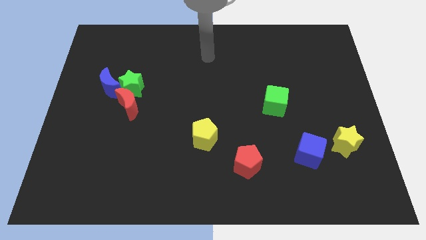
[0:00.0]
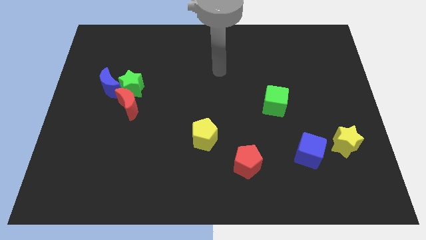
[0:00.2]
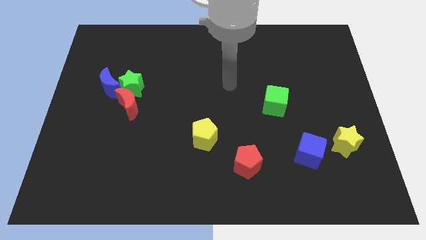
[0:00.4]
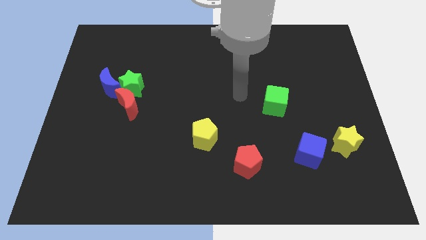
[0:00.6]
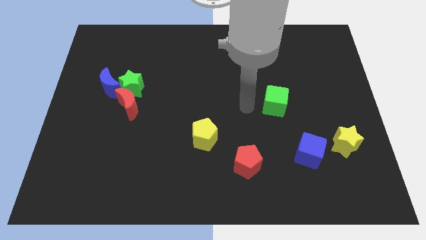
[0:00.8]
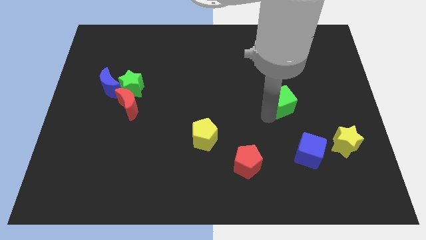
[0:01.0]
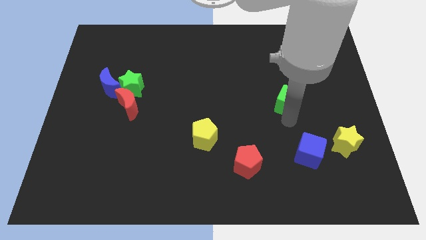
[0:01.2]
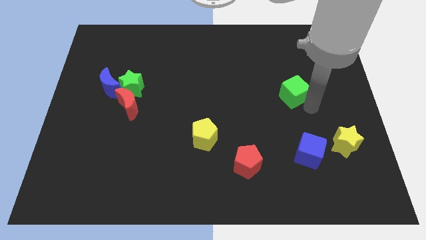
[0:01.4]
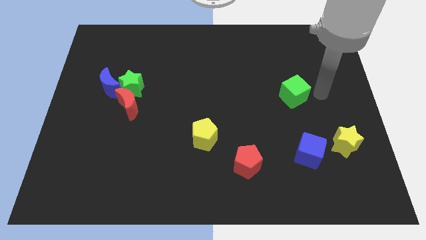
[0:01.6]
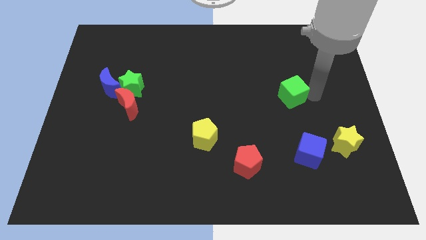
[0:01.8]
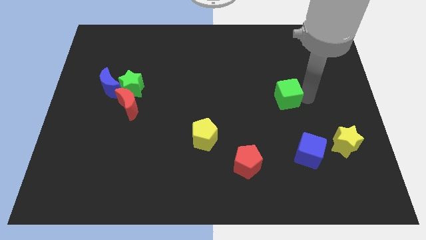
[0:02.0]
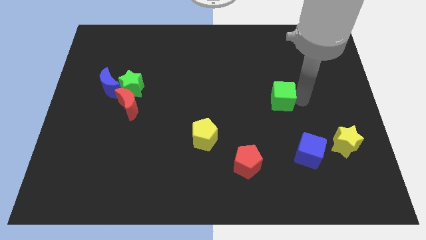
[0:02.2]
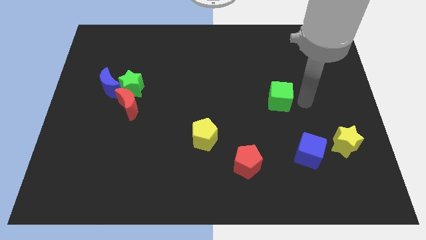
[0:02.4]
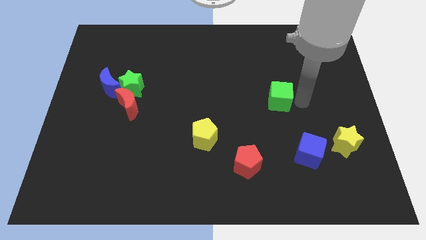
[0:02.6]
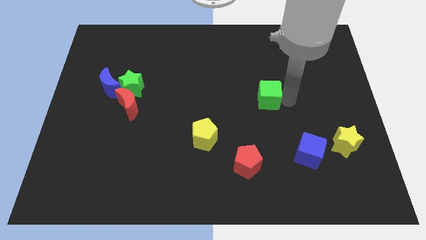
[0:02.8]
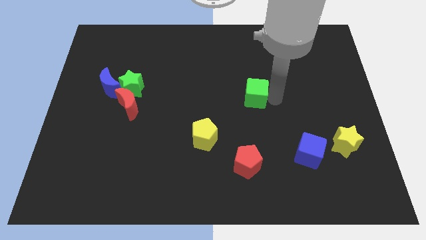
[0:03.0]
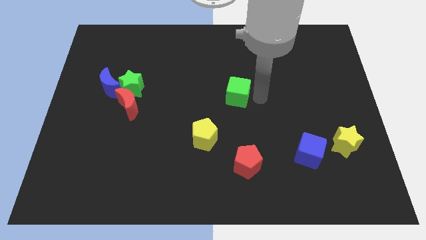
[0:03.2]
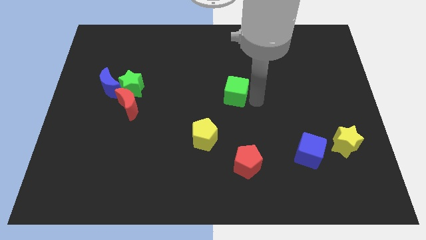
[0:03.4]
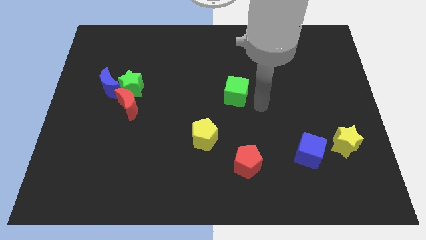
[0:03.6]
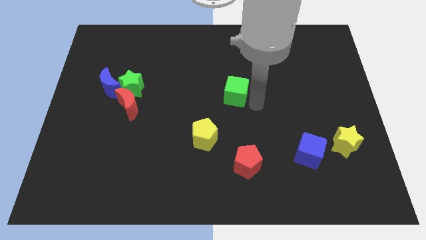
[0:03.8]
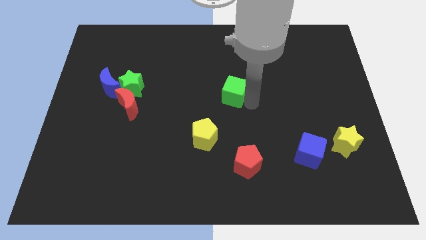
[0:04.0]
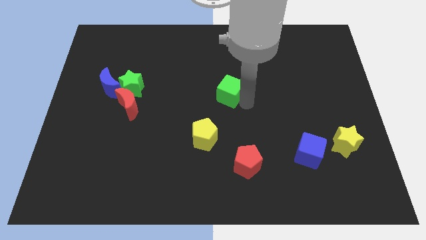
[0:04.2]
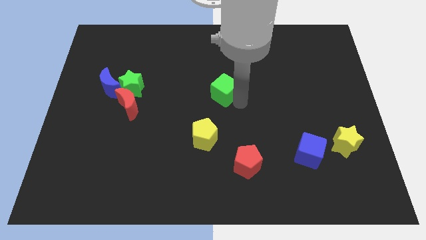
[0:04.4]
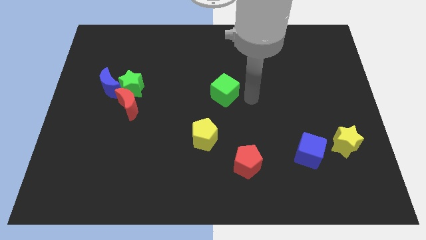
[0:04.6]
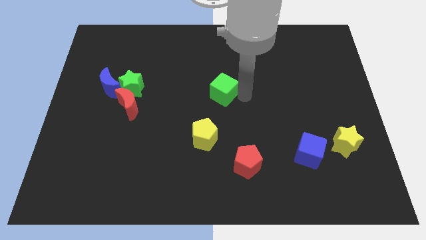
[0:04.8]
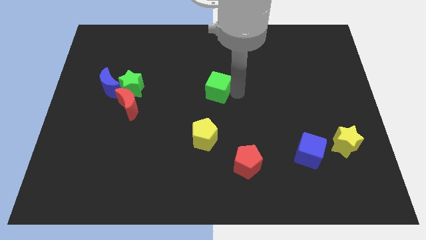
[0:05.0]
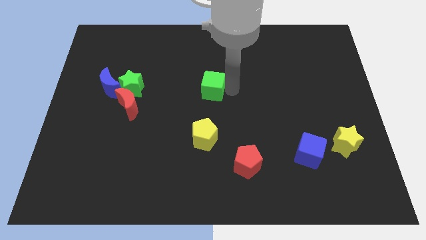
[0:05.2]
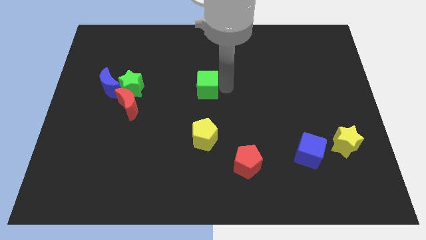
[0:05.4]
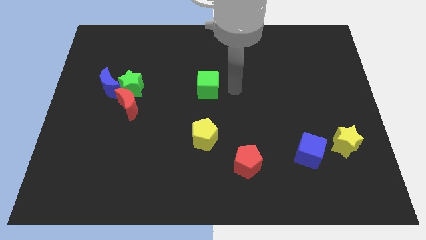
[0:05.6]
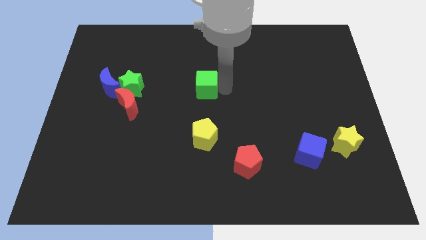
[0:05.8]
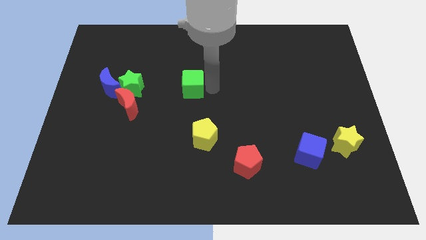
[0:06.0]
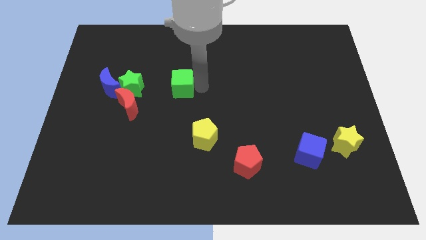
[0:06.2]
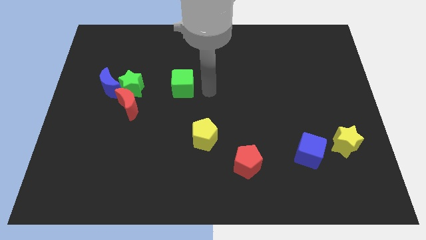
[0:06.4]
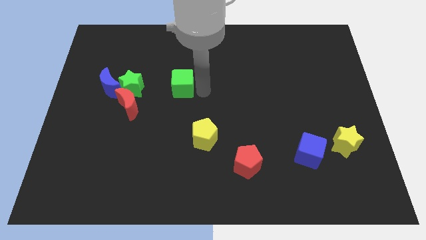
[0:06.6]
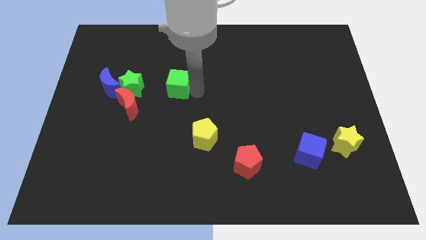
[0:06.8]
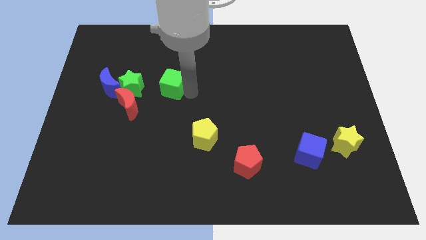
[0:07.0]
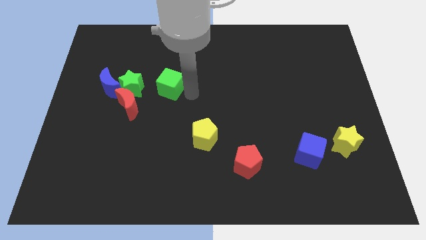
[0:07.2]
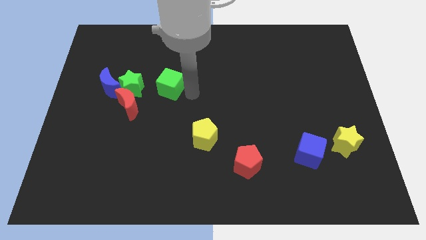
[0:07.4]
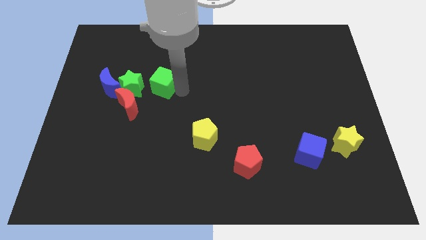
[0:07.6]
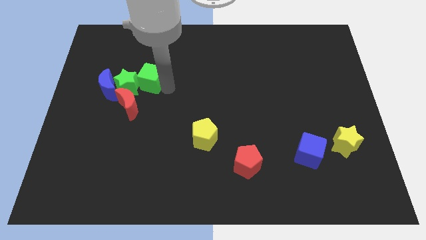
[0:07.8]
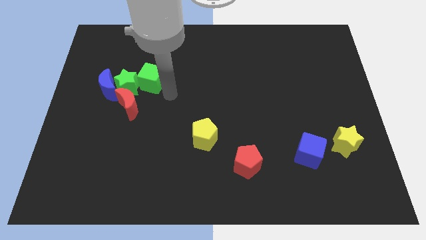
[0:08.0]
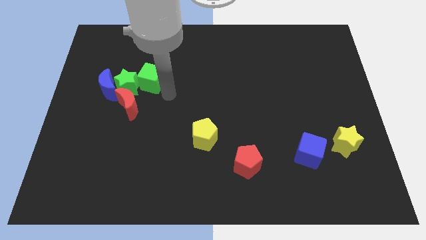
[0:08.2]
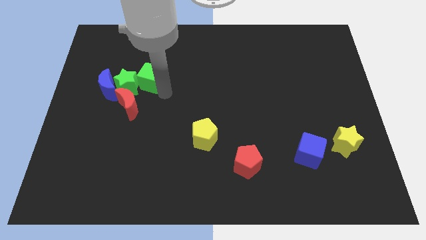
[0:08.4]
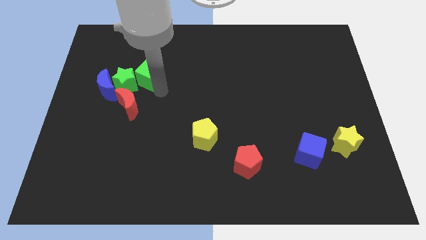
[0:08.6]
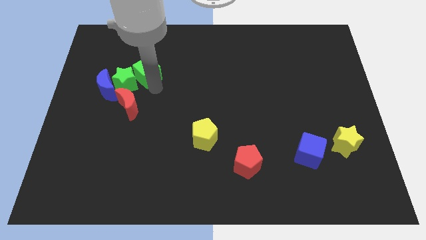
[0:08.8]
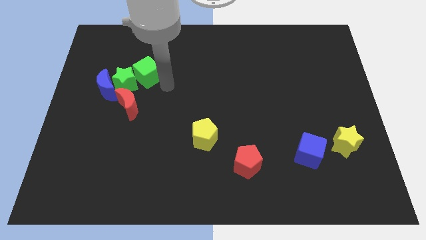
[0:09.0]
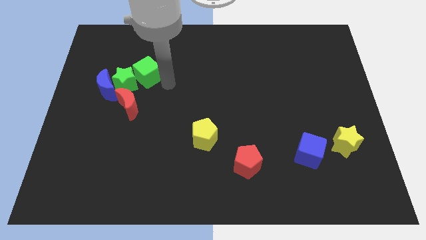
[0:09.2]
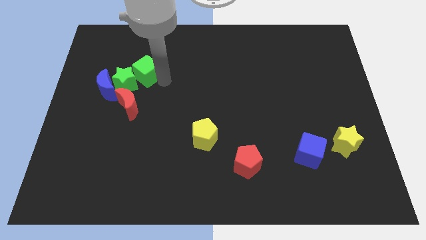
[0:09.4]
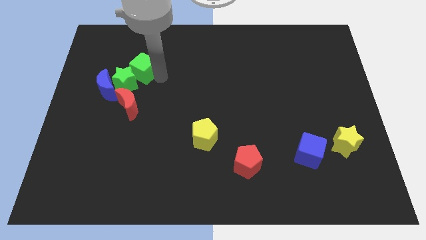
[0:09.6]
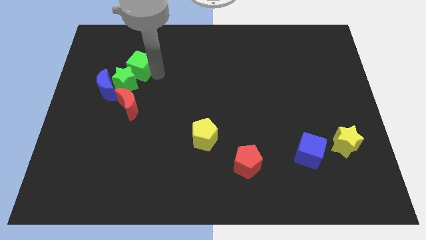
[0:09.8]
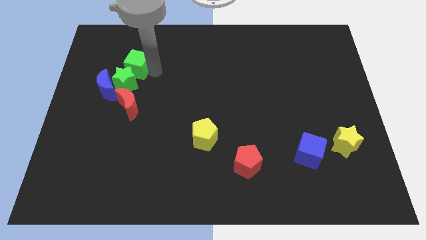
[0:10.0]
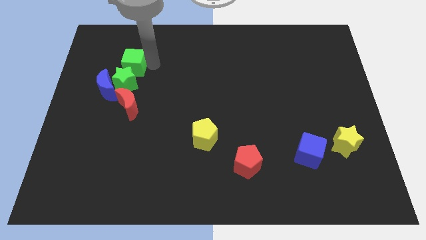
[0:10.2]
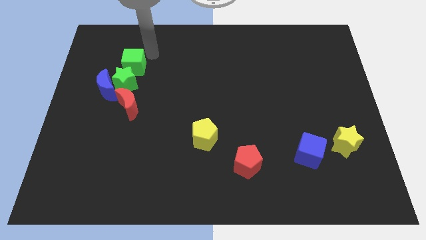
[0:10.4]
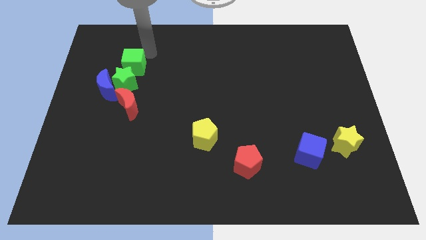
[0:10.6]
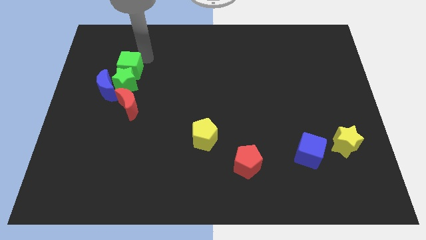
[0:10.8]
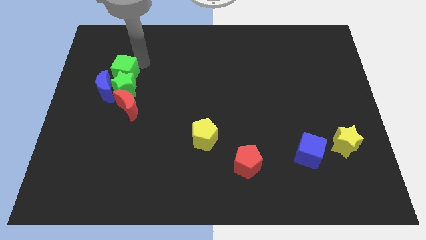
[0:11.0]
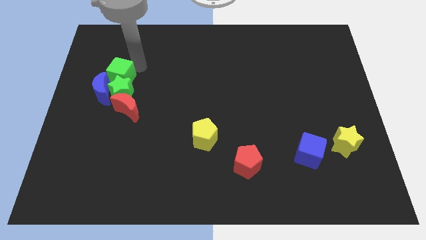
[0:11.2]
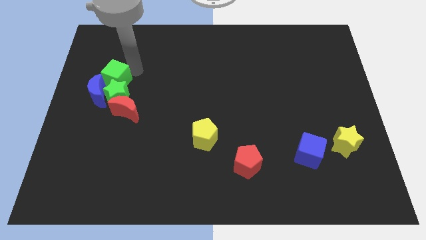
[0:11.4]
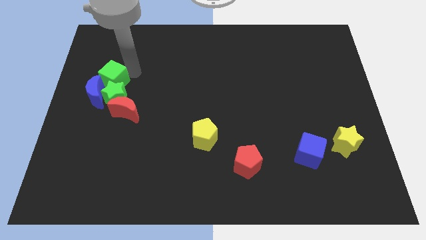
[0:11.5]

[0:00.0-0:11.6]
move the green cube towards the blue moon

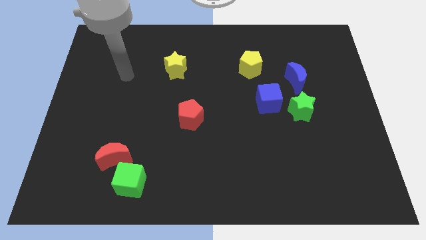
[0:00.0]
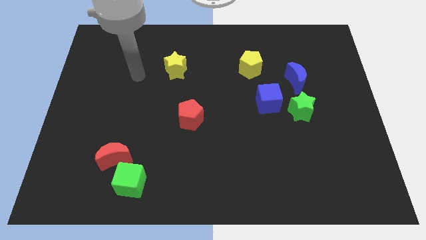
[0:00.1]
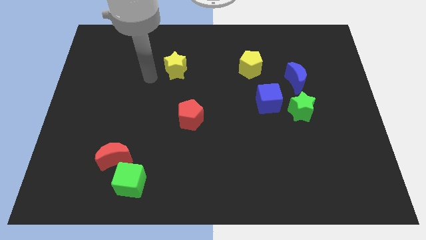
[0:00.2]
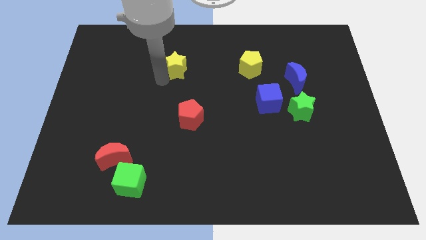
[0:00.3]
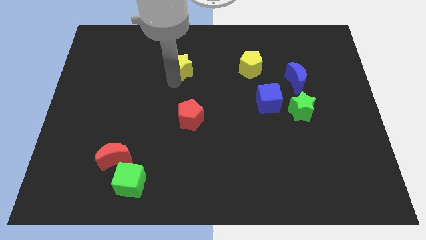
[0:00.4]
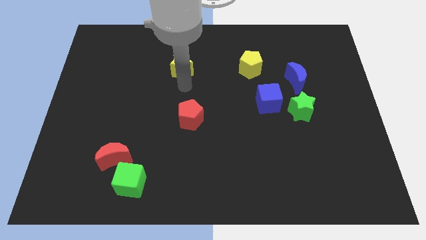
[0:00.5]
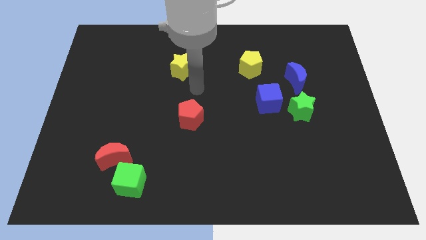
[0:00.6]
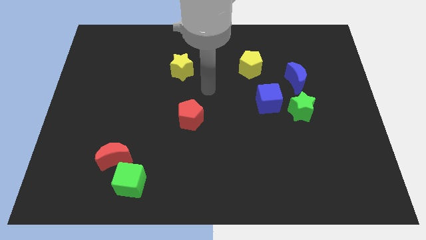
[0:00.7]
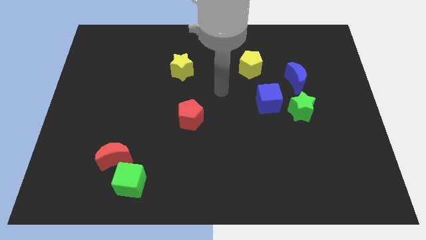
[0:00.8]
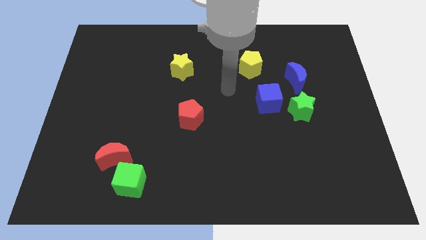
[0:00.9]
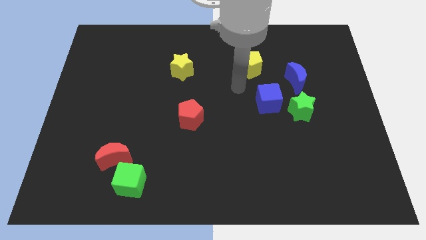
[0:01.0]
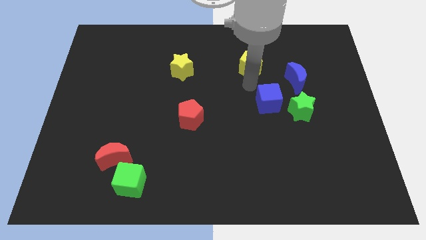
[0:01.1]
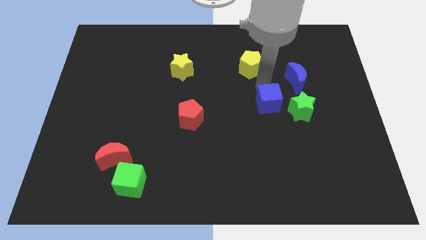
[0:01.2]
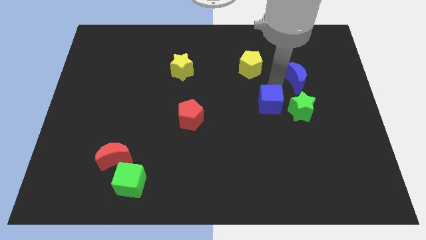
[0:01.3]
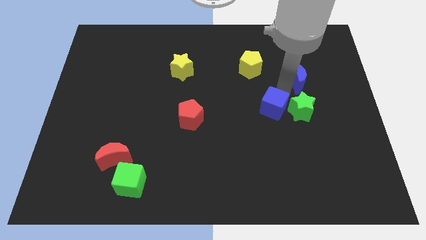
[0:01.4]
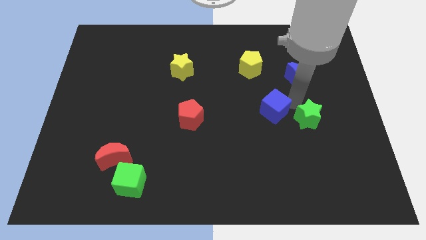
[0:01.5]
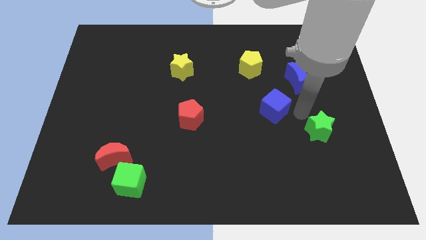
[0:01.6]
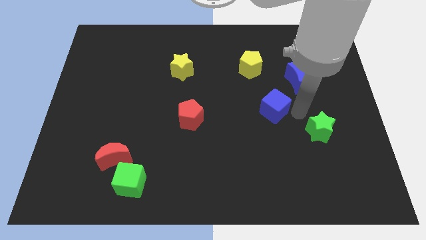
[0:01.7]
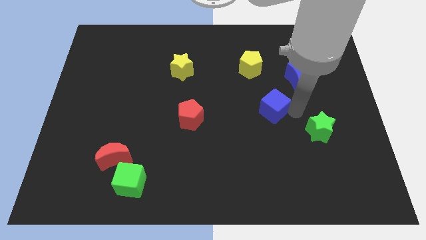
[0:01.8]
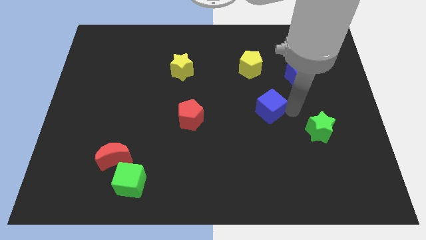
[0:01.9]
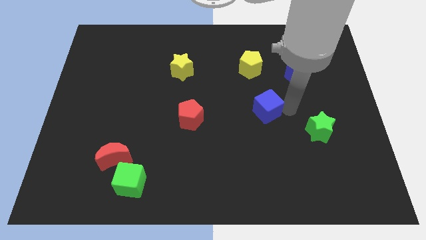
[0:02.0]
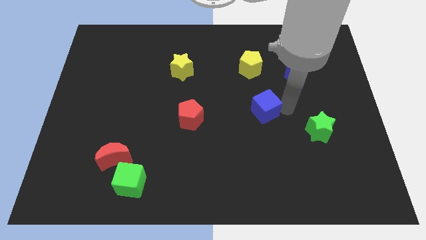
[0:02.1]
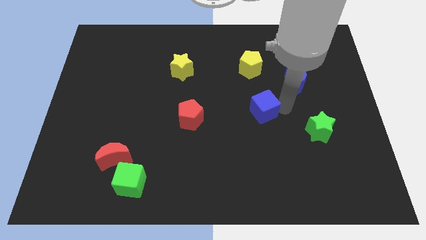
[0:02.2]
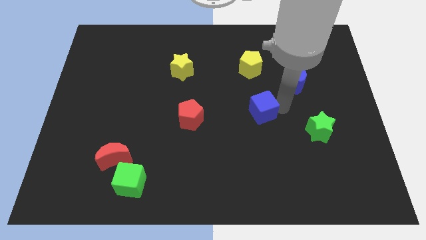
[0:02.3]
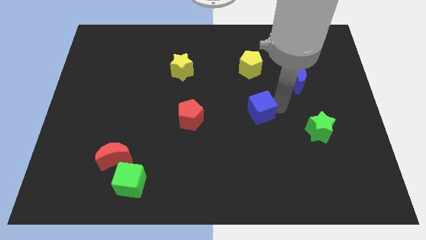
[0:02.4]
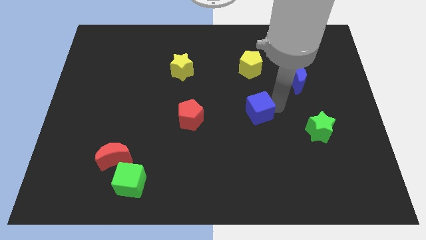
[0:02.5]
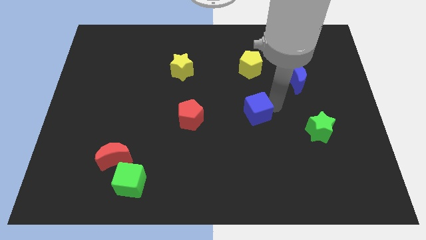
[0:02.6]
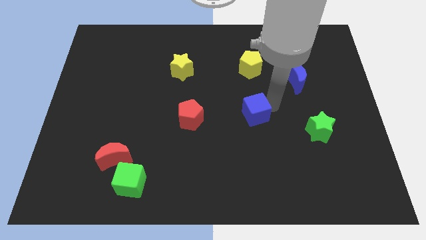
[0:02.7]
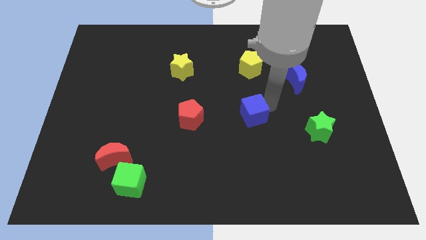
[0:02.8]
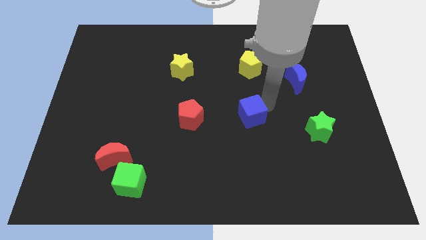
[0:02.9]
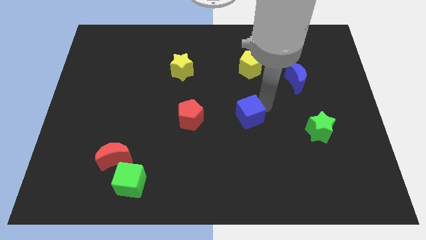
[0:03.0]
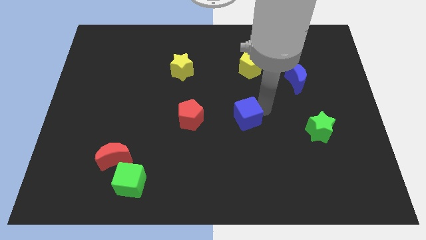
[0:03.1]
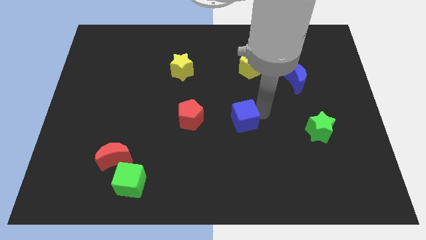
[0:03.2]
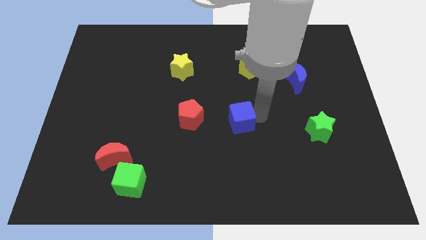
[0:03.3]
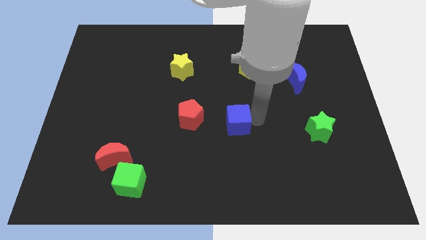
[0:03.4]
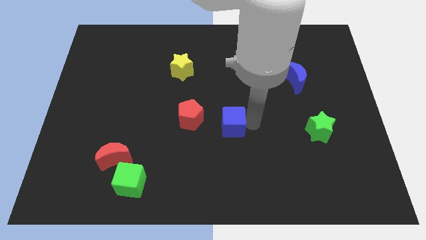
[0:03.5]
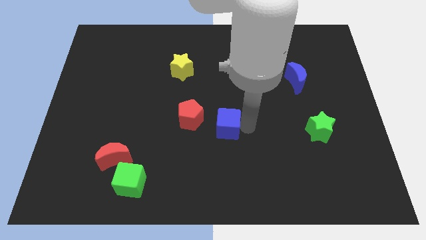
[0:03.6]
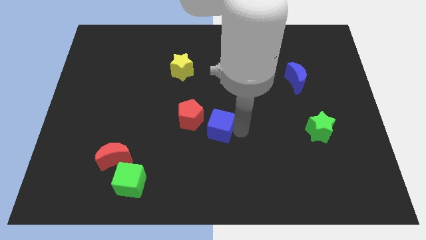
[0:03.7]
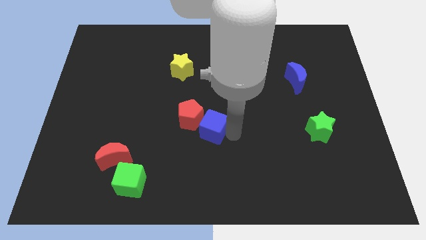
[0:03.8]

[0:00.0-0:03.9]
slide the blue cube next to the red pentagon
